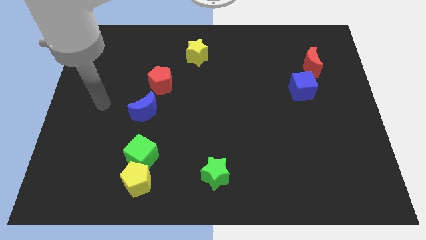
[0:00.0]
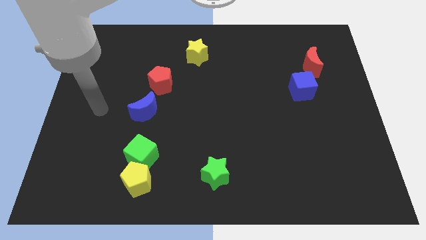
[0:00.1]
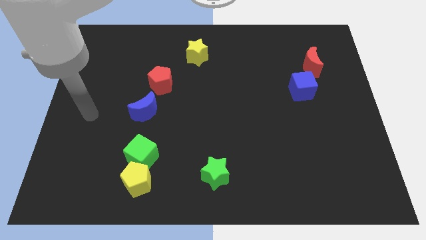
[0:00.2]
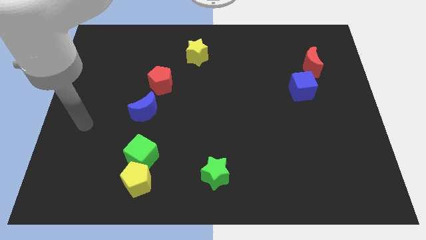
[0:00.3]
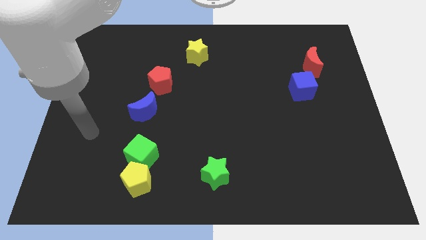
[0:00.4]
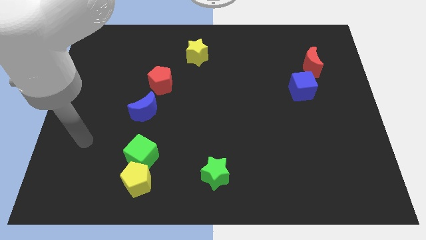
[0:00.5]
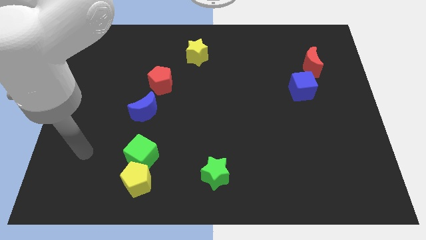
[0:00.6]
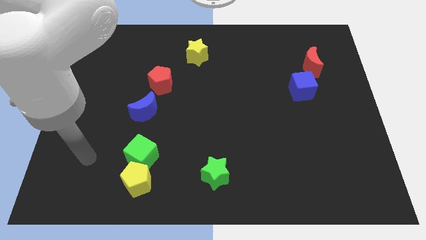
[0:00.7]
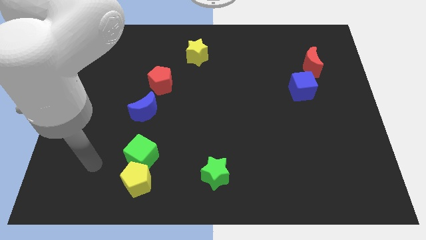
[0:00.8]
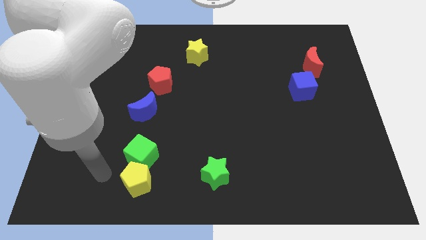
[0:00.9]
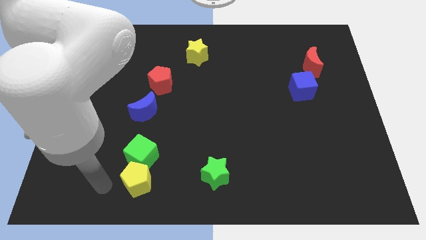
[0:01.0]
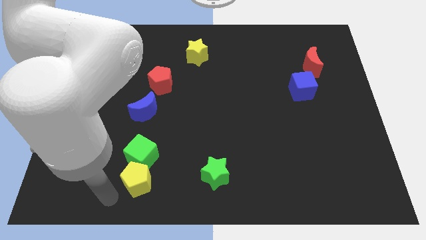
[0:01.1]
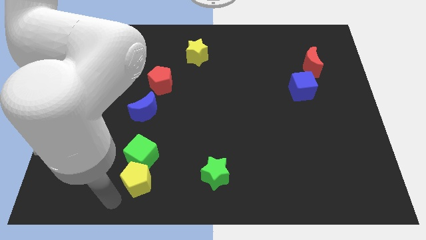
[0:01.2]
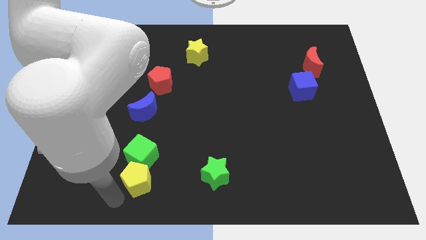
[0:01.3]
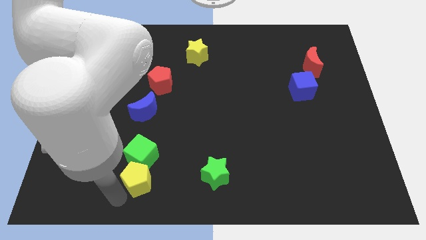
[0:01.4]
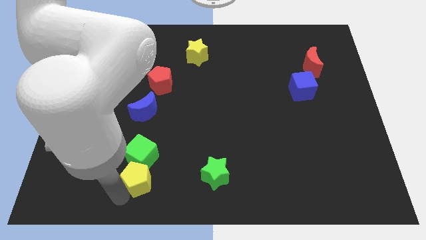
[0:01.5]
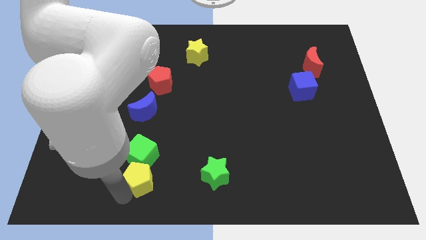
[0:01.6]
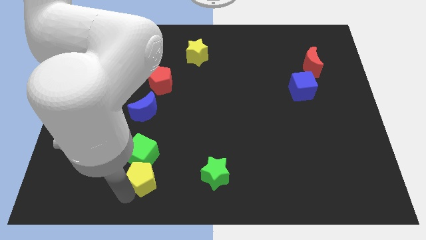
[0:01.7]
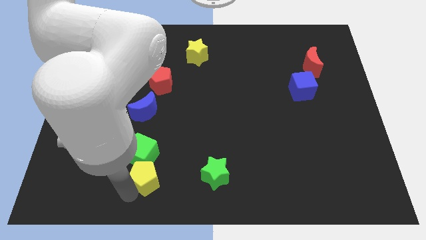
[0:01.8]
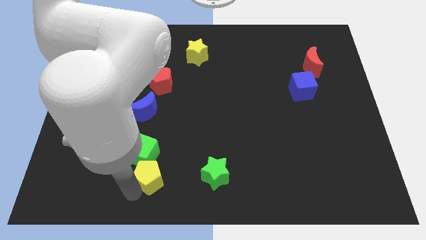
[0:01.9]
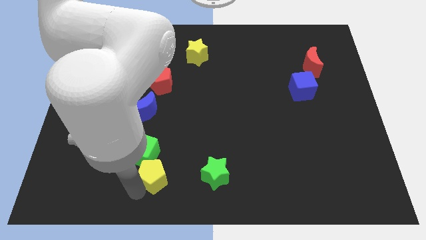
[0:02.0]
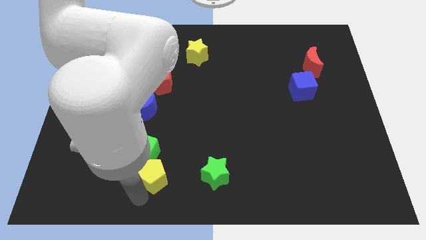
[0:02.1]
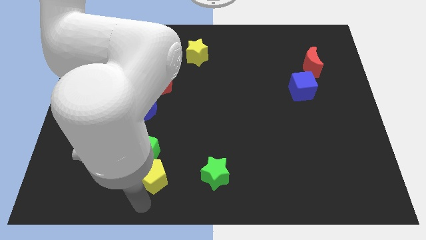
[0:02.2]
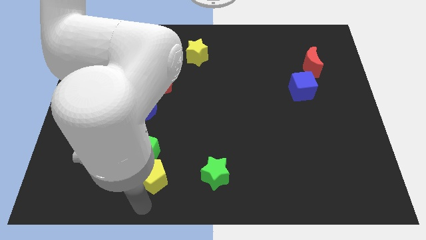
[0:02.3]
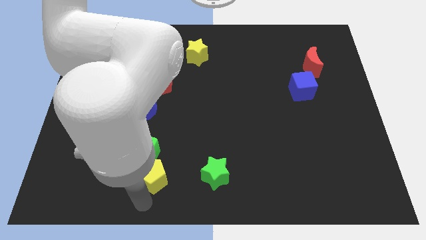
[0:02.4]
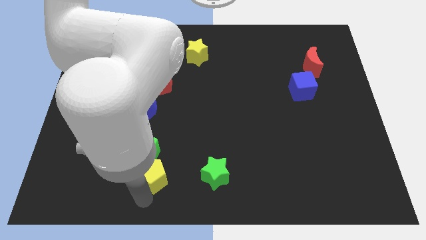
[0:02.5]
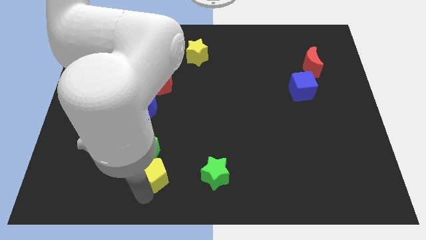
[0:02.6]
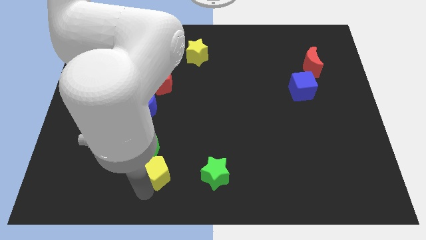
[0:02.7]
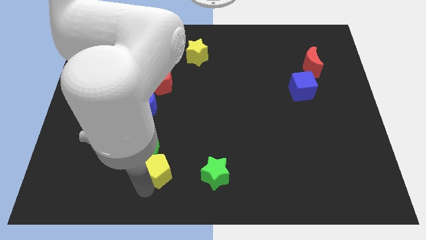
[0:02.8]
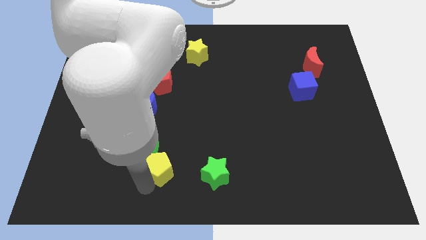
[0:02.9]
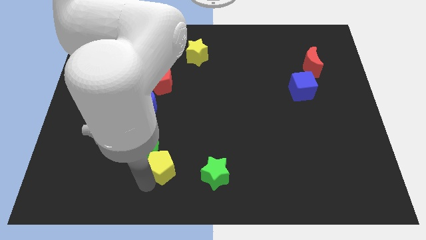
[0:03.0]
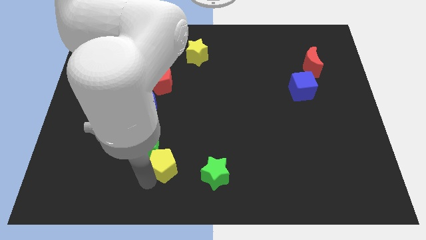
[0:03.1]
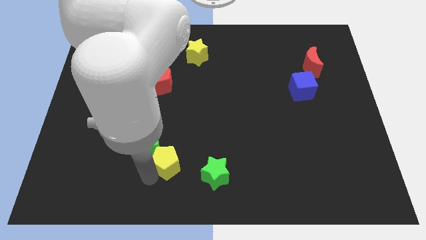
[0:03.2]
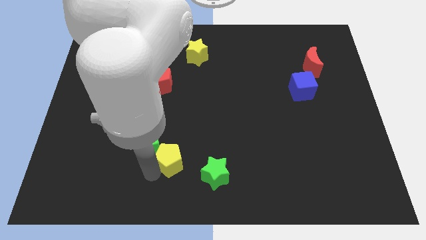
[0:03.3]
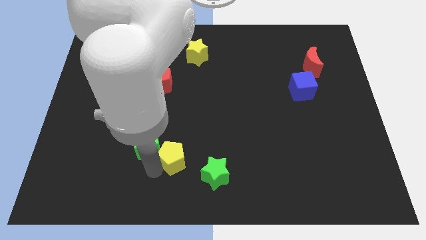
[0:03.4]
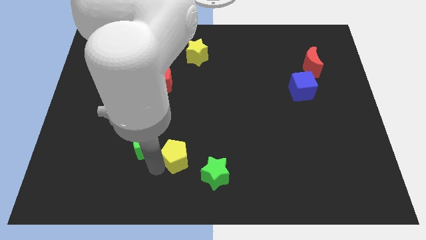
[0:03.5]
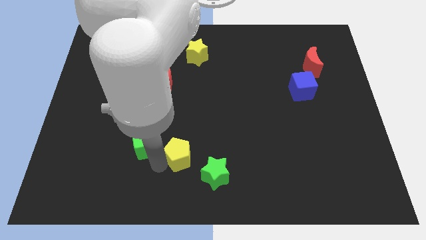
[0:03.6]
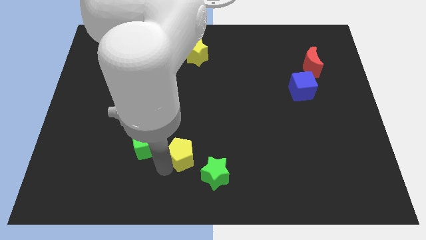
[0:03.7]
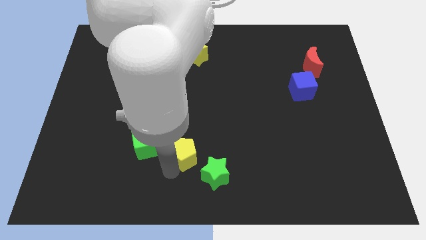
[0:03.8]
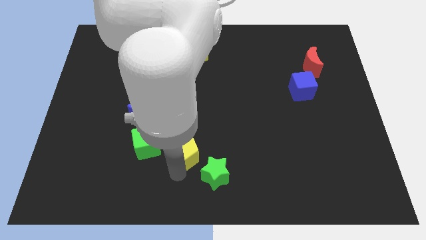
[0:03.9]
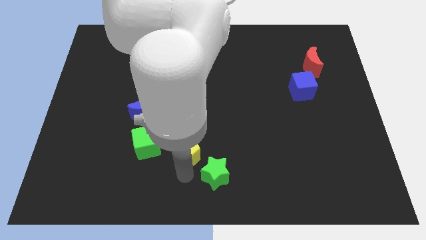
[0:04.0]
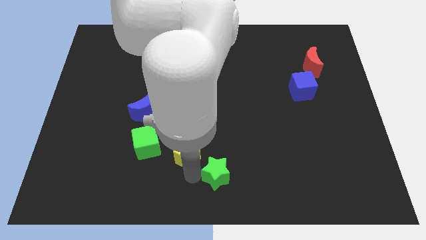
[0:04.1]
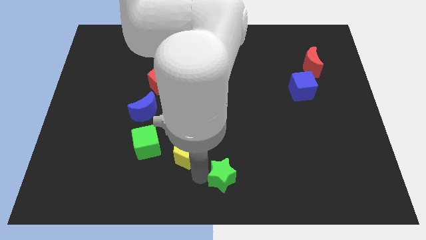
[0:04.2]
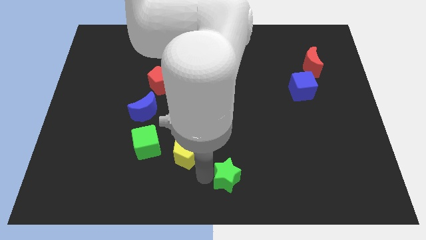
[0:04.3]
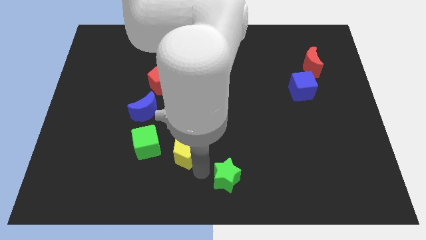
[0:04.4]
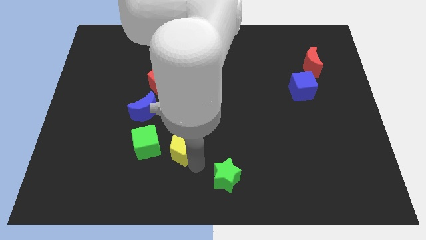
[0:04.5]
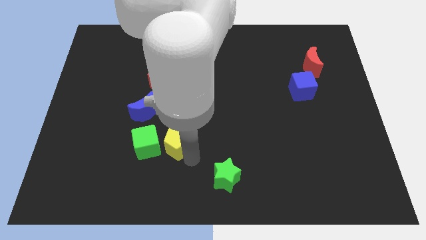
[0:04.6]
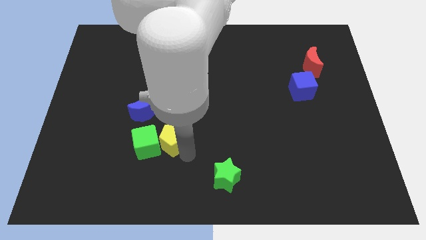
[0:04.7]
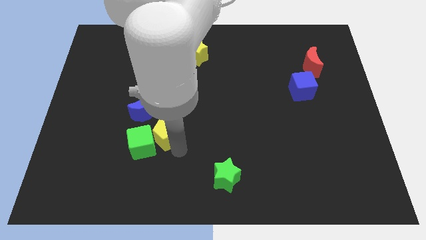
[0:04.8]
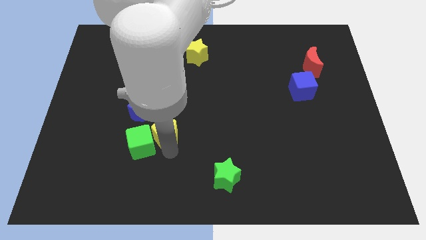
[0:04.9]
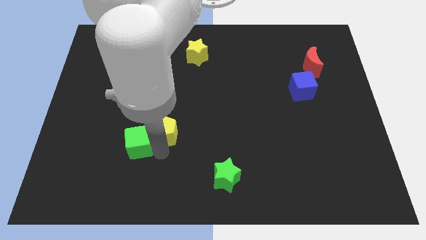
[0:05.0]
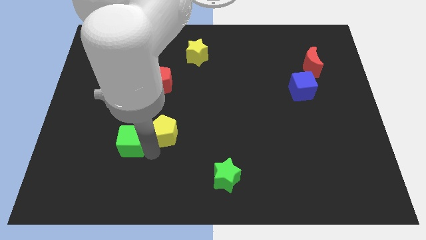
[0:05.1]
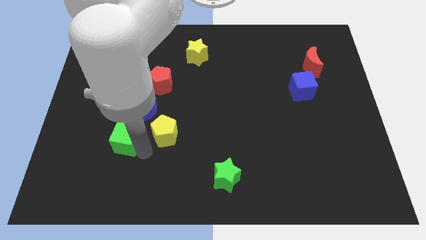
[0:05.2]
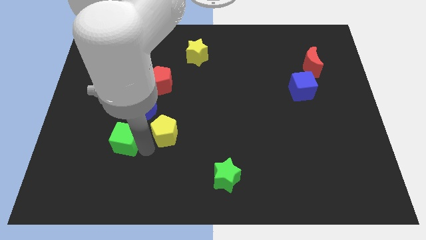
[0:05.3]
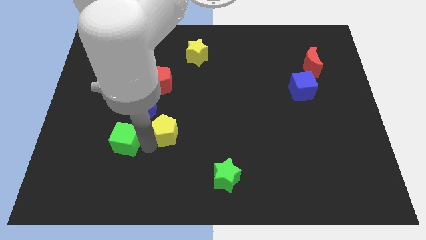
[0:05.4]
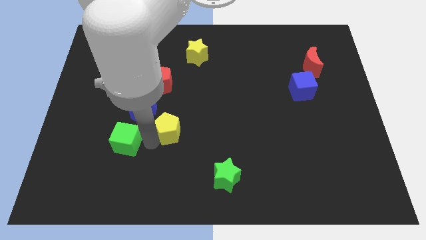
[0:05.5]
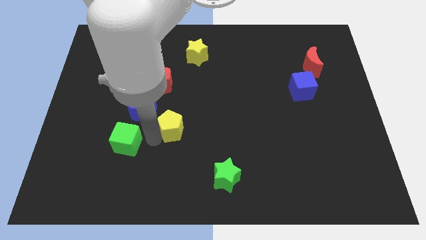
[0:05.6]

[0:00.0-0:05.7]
move the yellow pentagon to the middle of the board

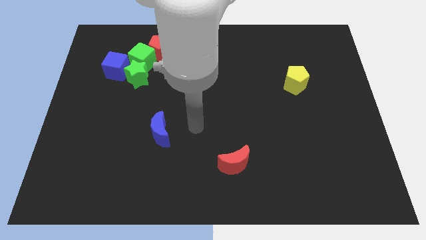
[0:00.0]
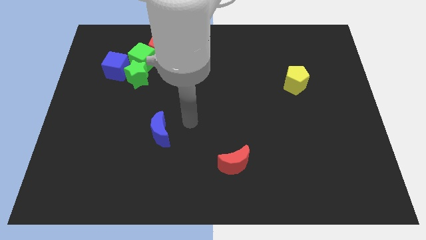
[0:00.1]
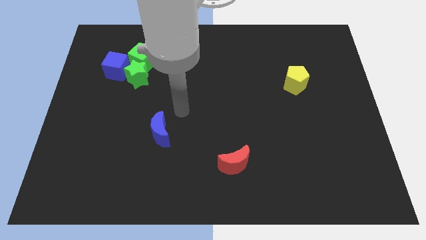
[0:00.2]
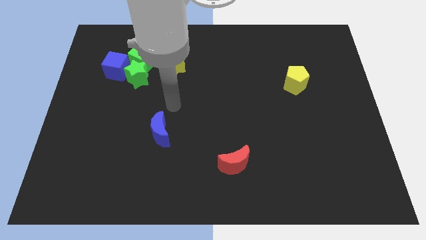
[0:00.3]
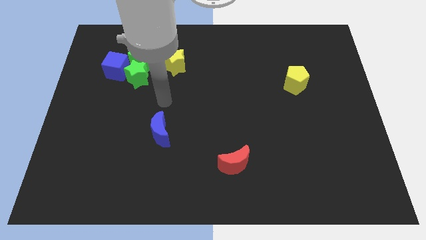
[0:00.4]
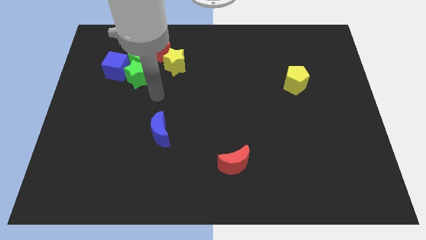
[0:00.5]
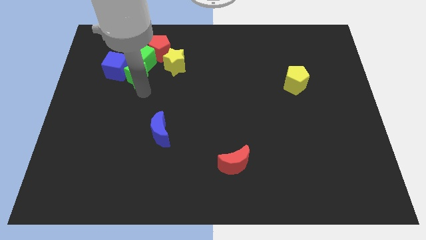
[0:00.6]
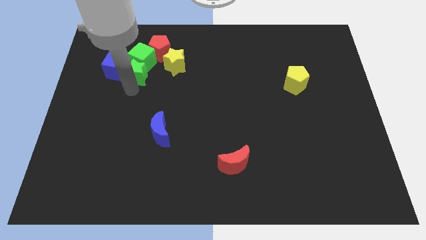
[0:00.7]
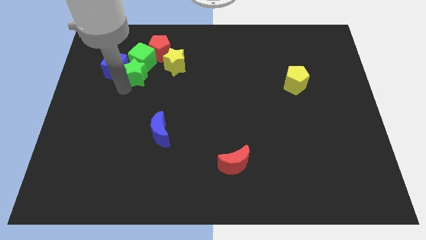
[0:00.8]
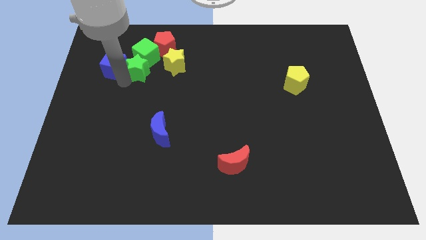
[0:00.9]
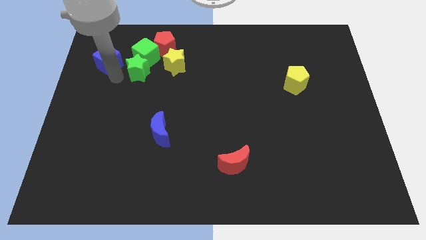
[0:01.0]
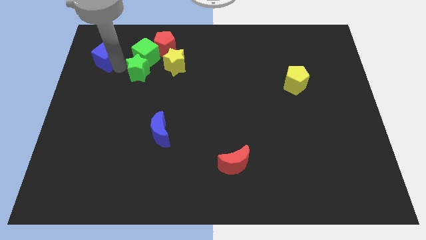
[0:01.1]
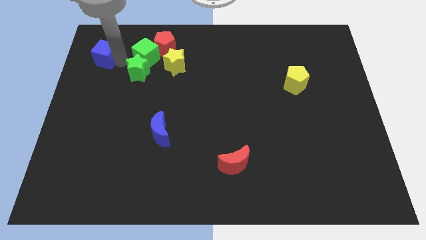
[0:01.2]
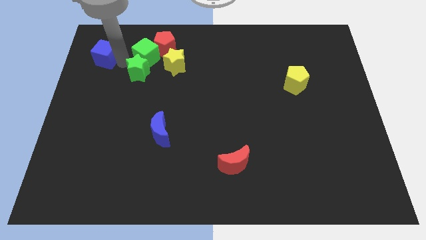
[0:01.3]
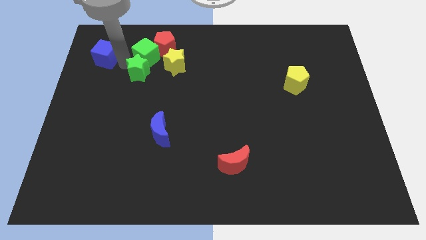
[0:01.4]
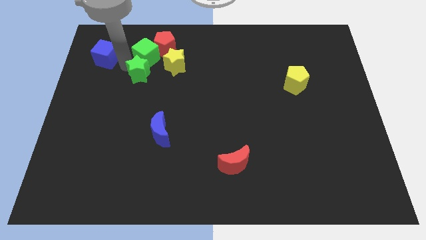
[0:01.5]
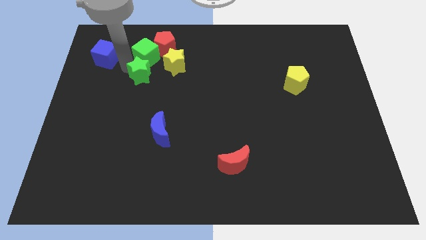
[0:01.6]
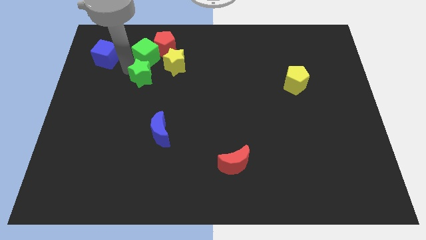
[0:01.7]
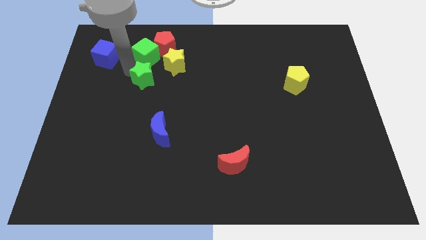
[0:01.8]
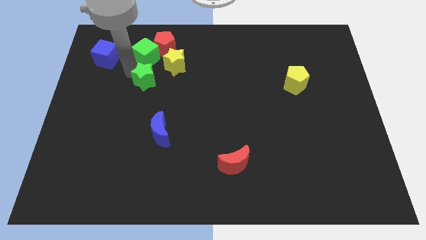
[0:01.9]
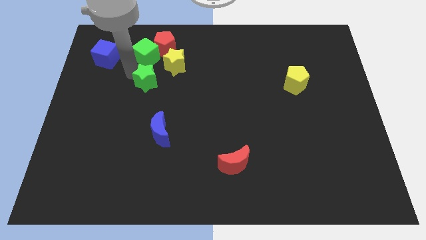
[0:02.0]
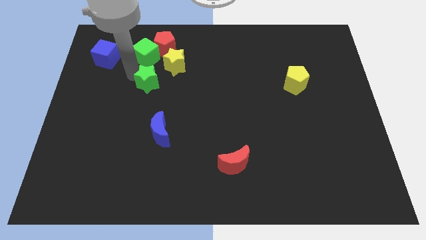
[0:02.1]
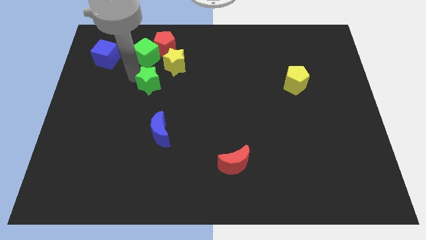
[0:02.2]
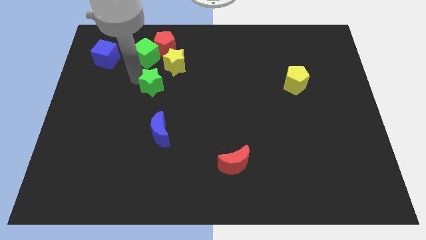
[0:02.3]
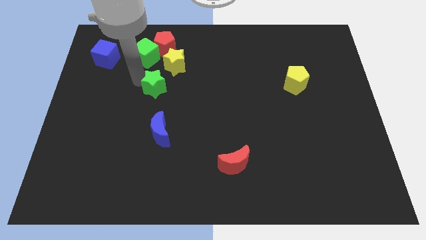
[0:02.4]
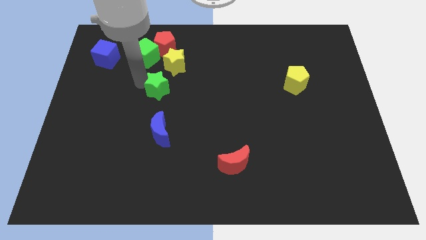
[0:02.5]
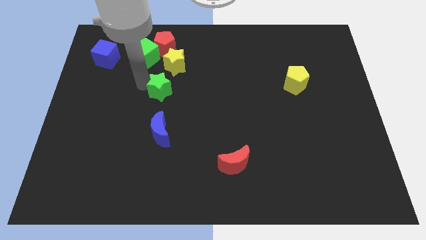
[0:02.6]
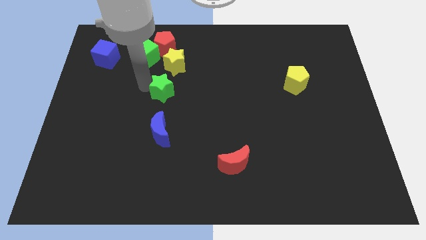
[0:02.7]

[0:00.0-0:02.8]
push the green star to the middle
